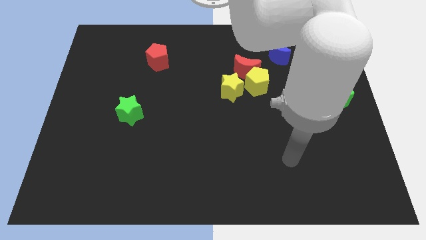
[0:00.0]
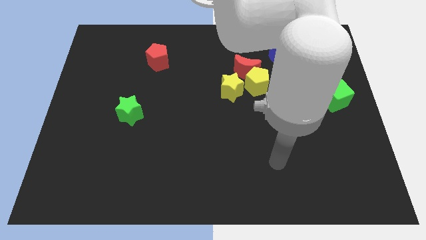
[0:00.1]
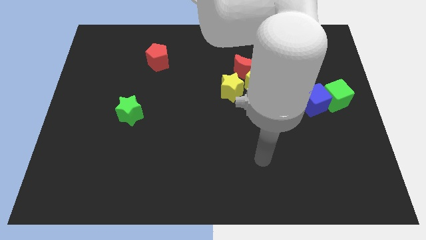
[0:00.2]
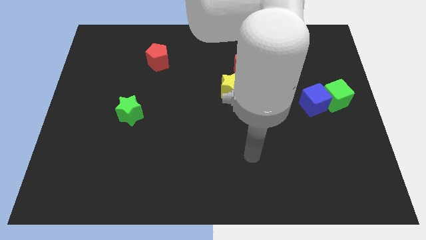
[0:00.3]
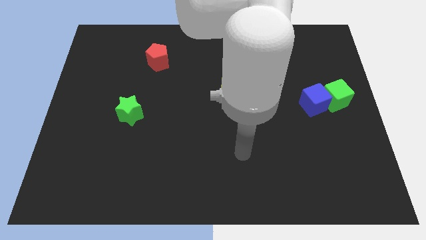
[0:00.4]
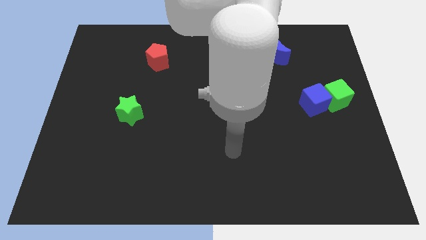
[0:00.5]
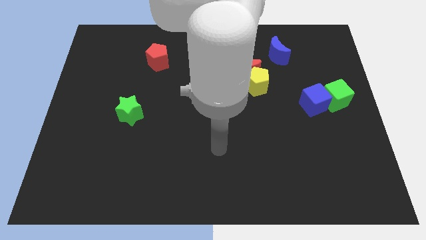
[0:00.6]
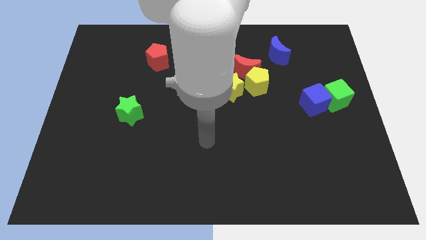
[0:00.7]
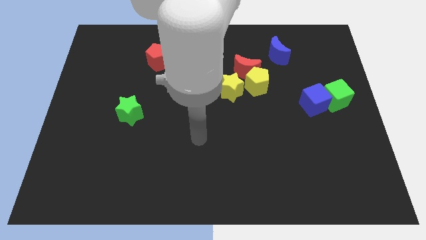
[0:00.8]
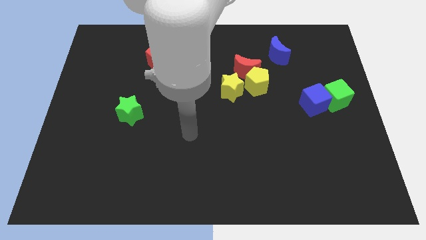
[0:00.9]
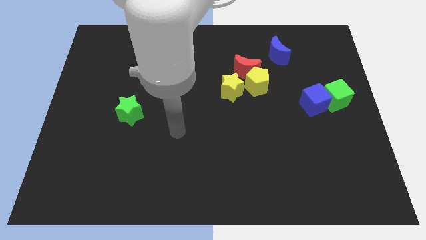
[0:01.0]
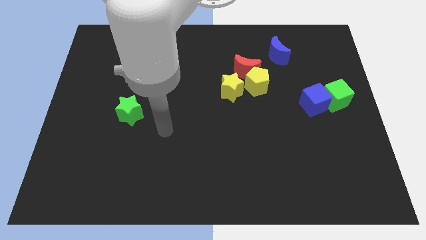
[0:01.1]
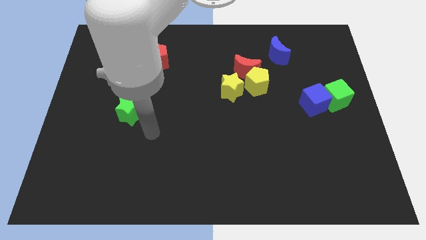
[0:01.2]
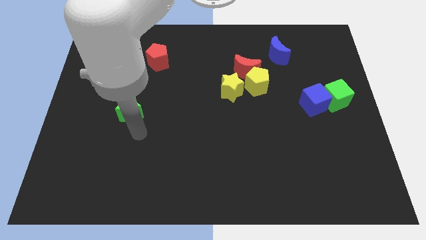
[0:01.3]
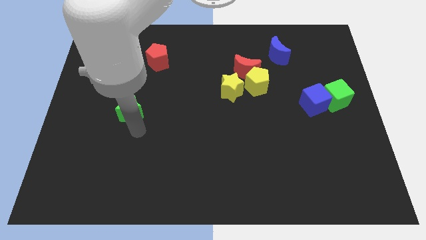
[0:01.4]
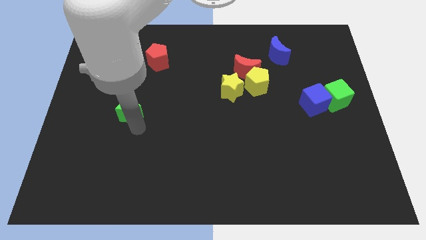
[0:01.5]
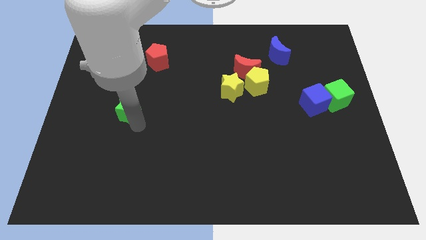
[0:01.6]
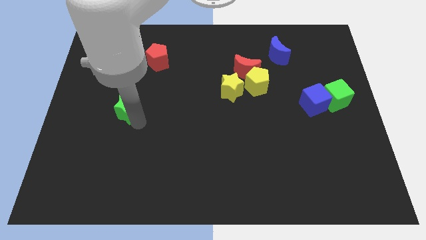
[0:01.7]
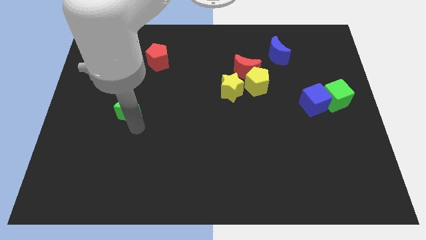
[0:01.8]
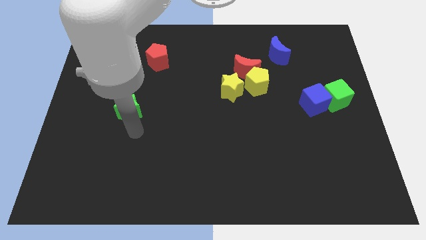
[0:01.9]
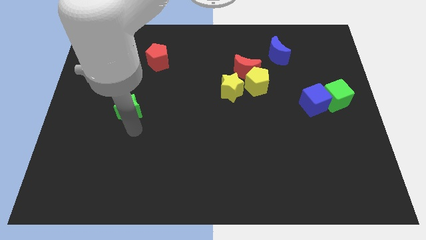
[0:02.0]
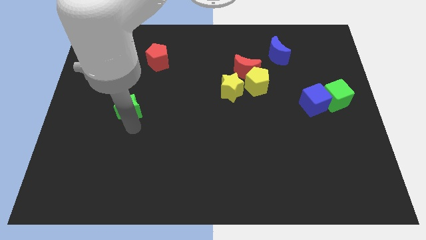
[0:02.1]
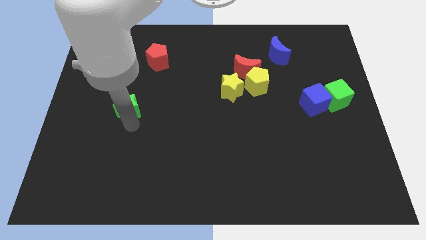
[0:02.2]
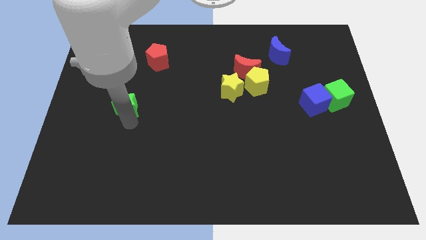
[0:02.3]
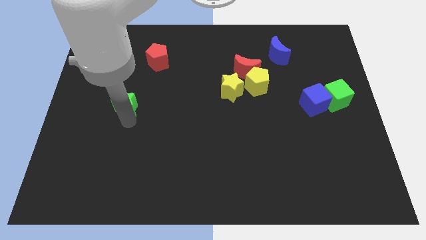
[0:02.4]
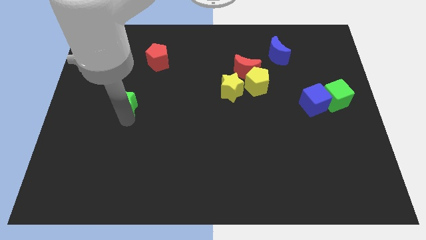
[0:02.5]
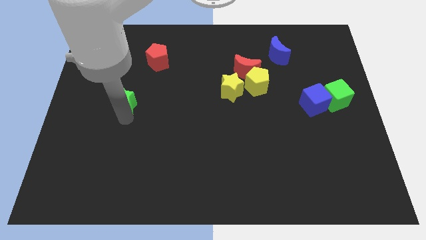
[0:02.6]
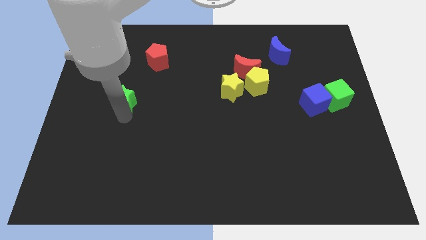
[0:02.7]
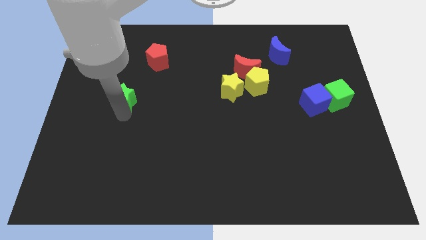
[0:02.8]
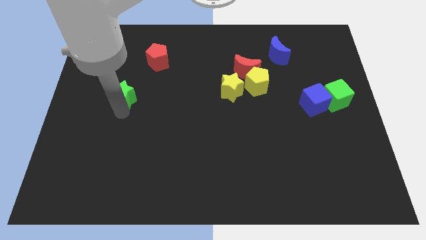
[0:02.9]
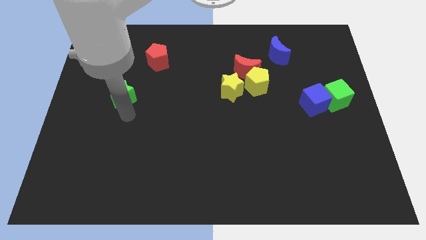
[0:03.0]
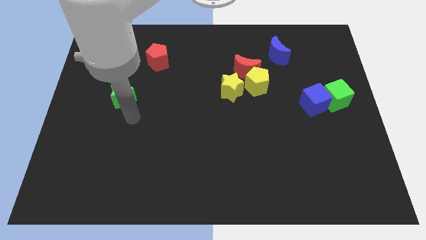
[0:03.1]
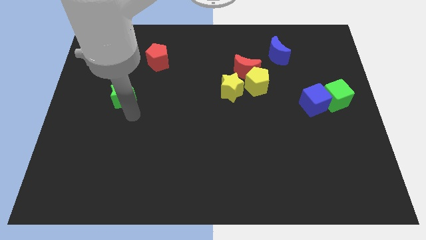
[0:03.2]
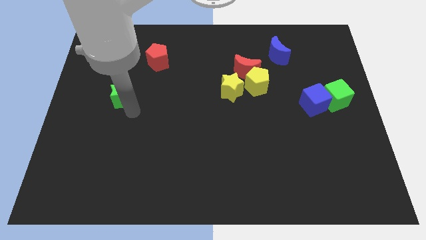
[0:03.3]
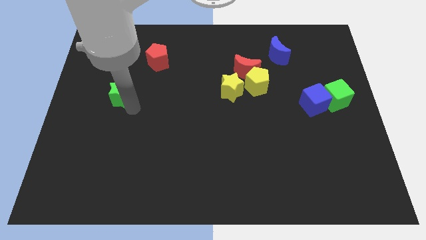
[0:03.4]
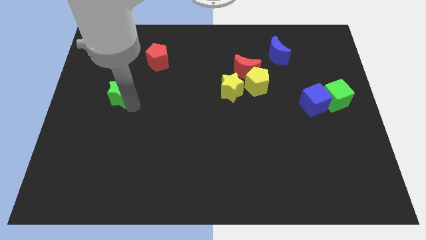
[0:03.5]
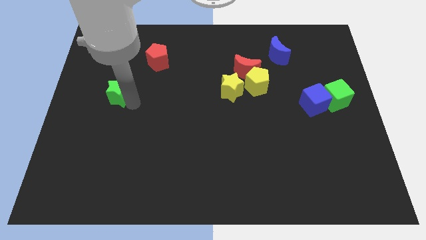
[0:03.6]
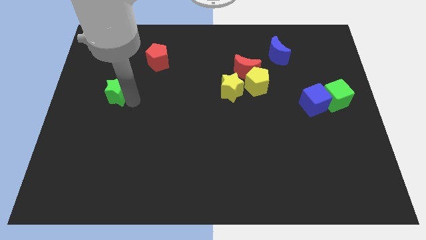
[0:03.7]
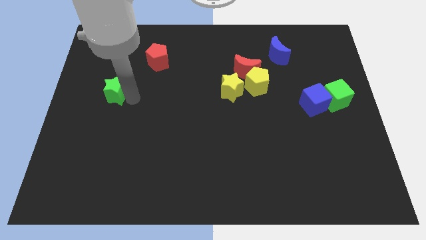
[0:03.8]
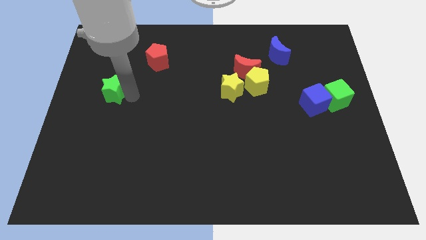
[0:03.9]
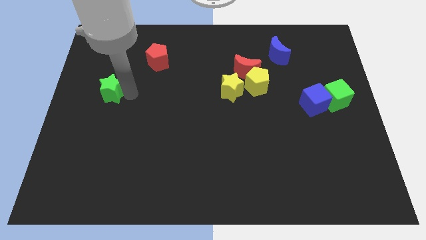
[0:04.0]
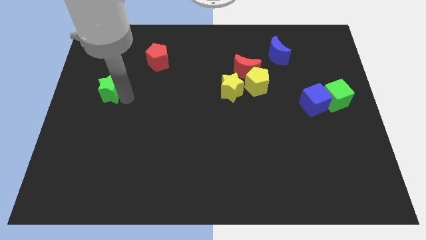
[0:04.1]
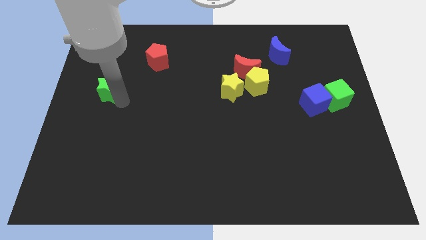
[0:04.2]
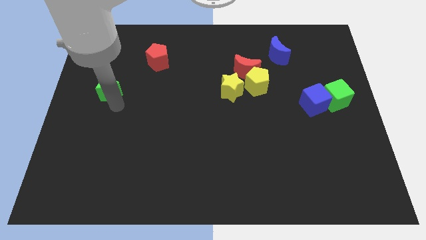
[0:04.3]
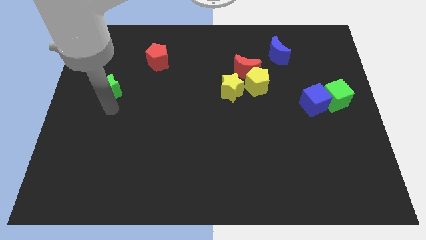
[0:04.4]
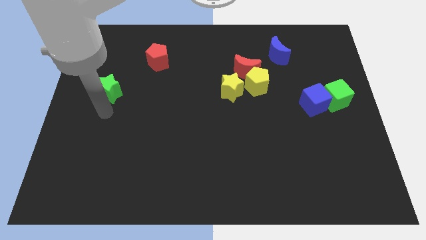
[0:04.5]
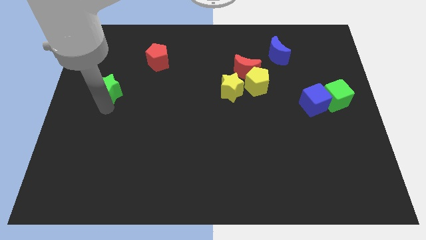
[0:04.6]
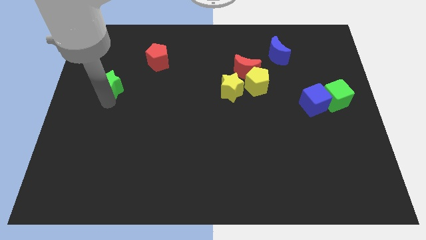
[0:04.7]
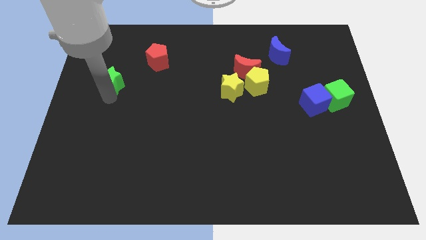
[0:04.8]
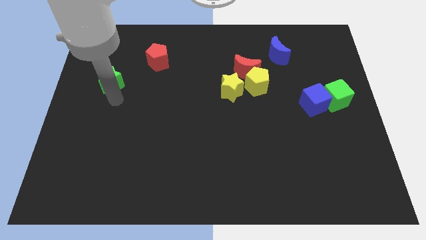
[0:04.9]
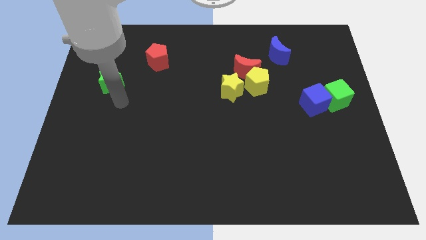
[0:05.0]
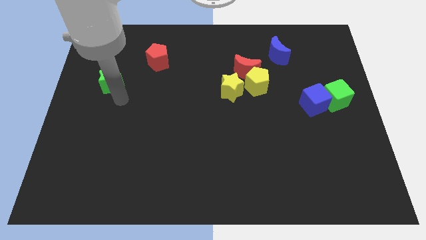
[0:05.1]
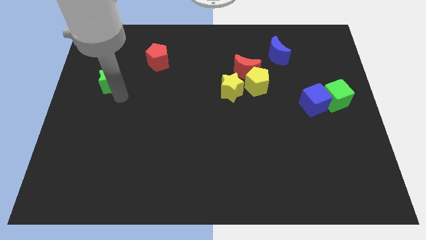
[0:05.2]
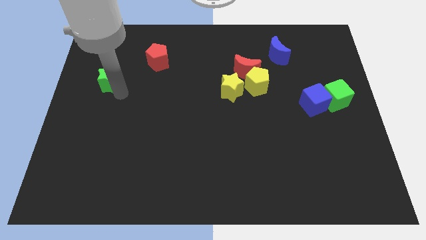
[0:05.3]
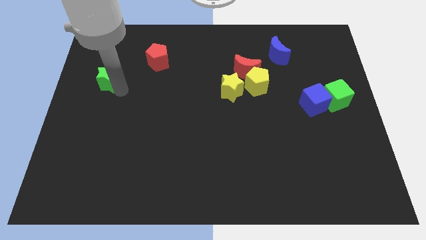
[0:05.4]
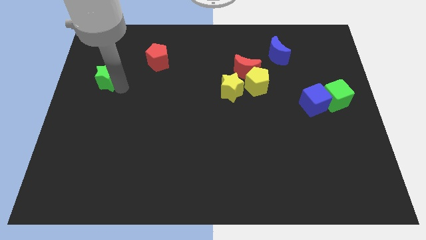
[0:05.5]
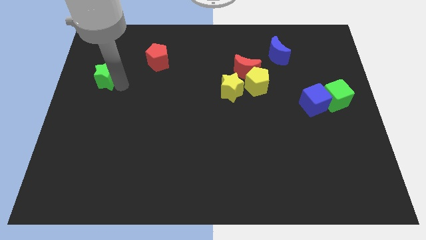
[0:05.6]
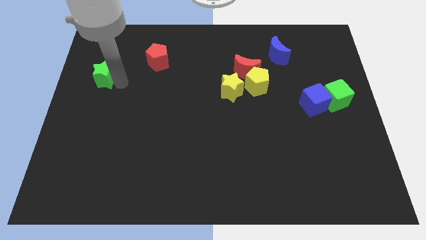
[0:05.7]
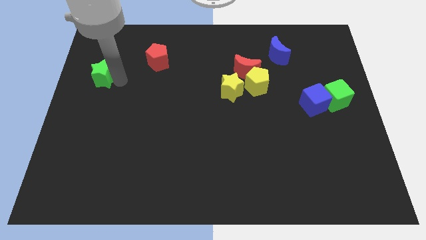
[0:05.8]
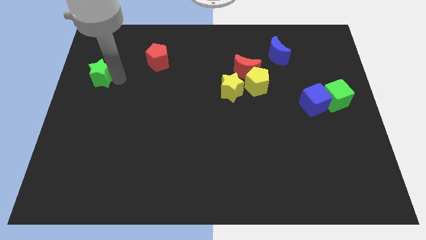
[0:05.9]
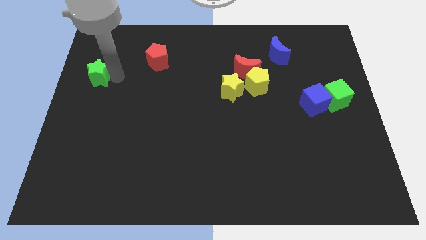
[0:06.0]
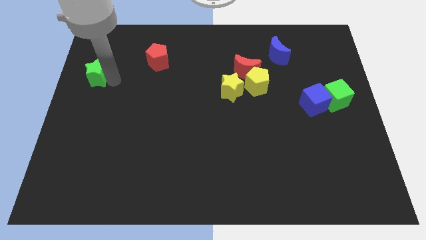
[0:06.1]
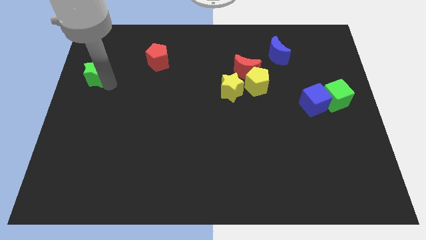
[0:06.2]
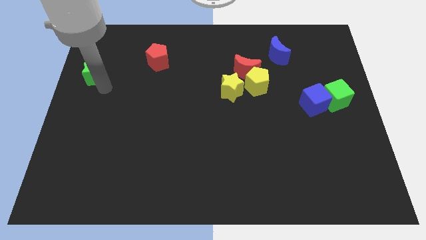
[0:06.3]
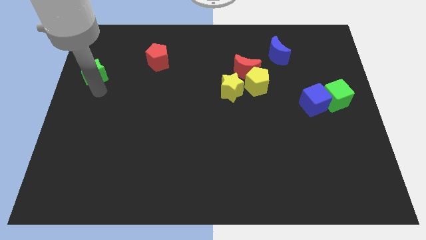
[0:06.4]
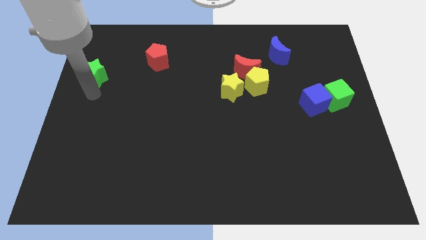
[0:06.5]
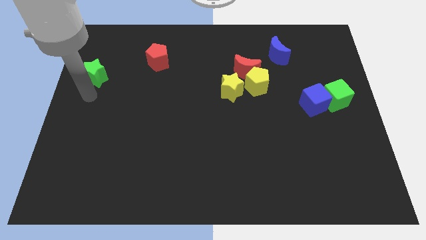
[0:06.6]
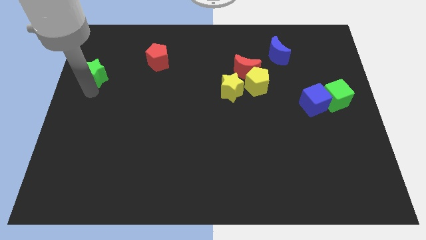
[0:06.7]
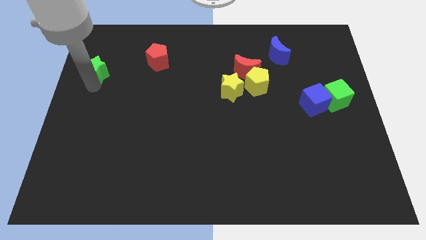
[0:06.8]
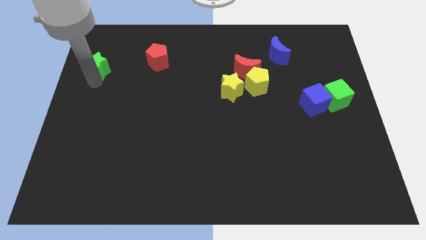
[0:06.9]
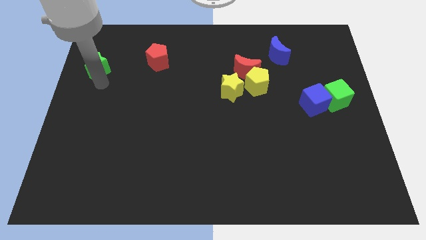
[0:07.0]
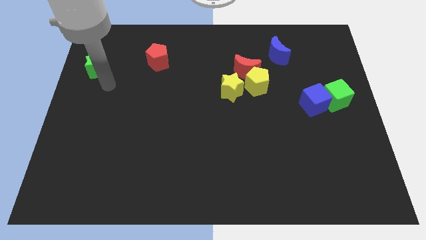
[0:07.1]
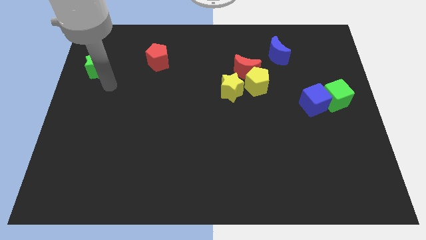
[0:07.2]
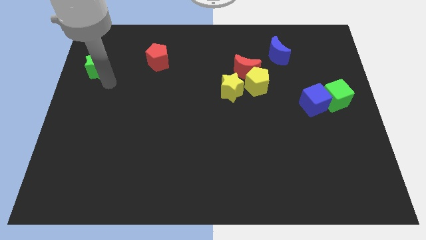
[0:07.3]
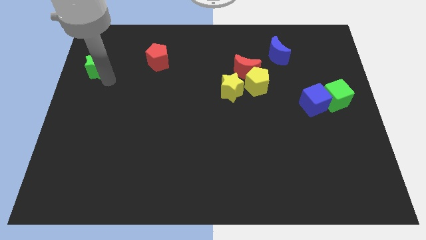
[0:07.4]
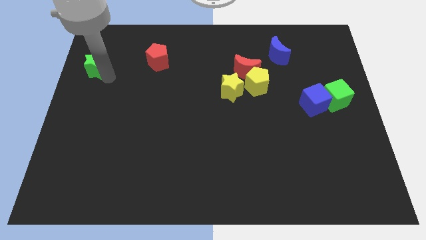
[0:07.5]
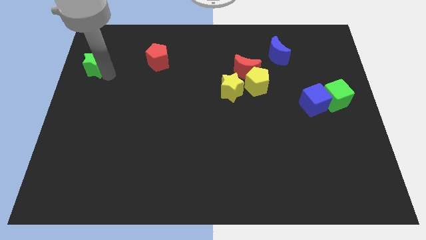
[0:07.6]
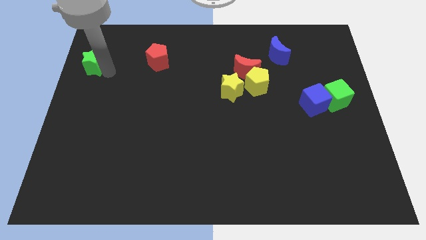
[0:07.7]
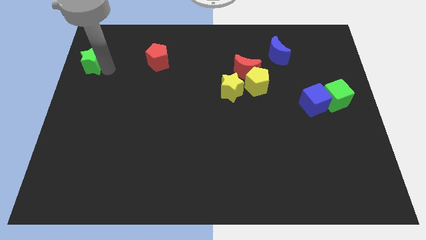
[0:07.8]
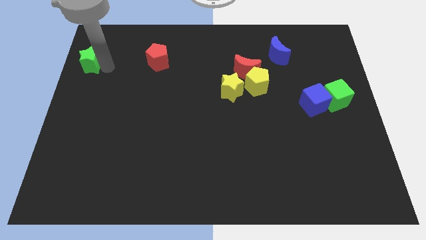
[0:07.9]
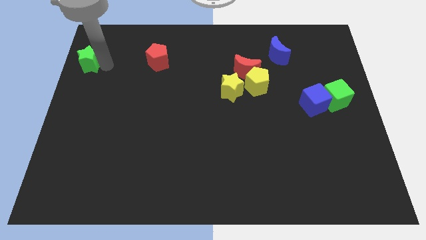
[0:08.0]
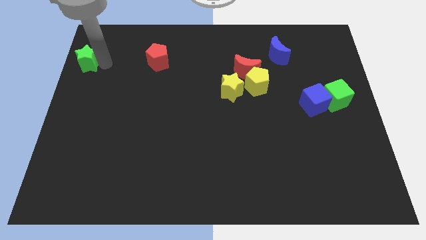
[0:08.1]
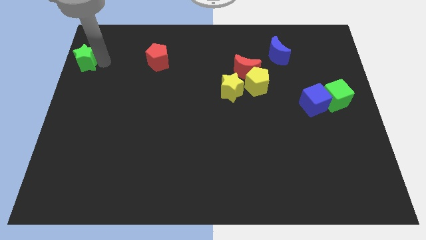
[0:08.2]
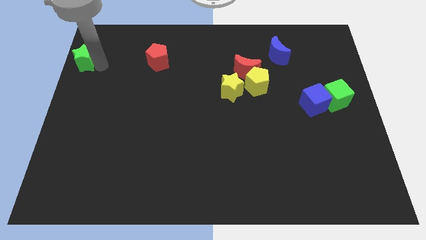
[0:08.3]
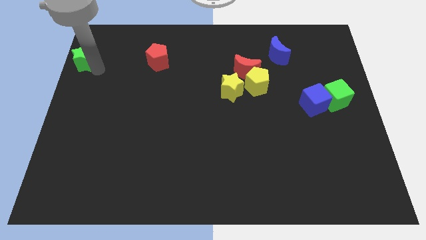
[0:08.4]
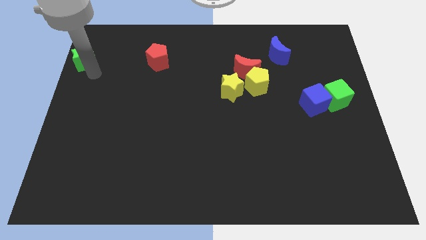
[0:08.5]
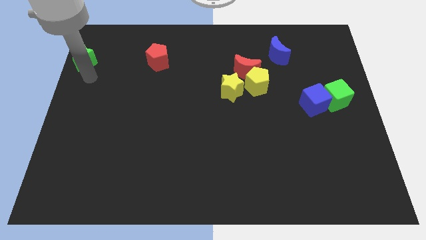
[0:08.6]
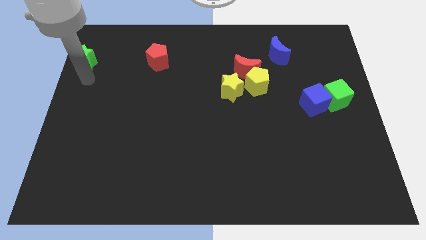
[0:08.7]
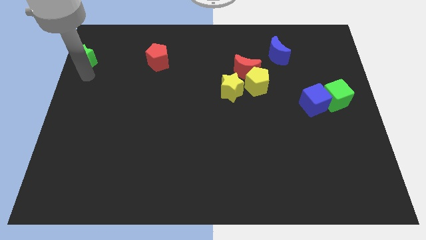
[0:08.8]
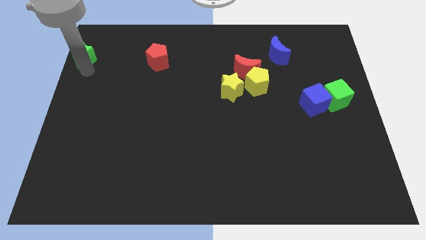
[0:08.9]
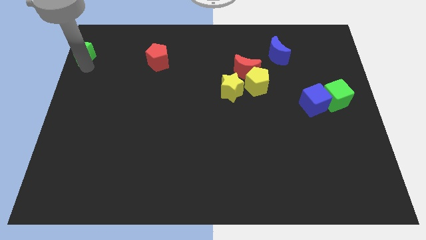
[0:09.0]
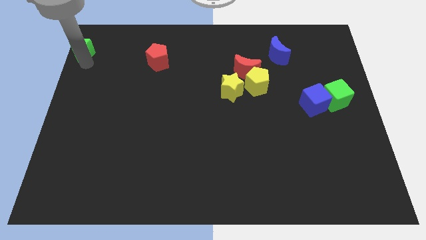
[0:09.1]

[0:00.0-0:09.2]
put the green star to the top left
